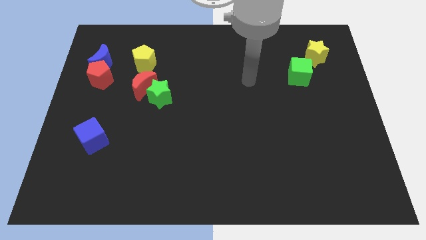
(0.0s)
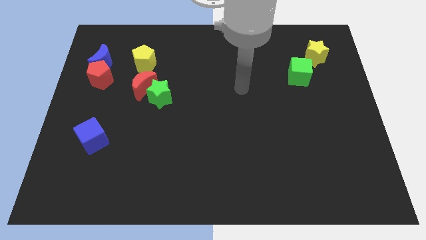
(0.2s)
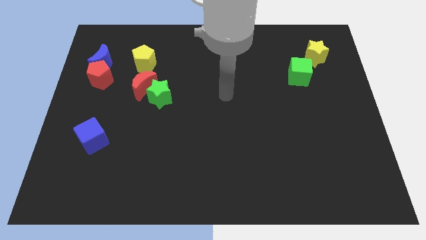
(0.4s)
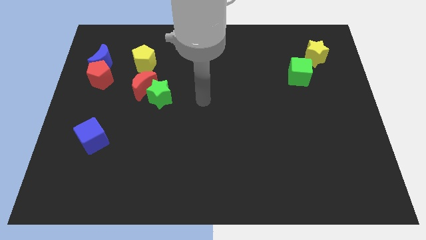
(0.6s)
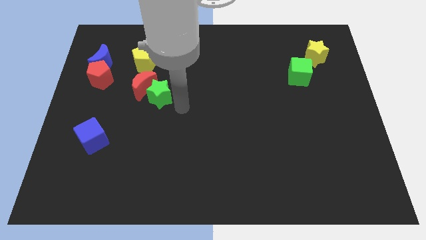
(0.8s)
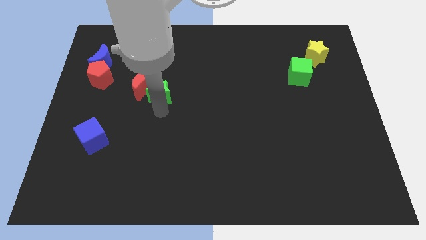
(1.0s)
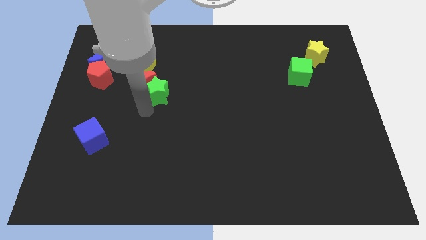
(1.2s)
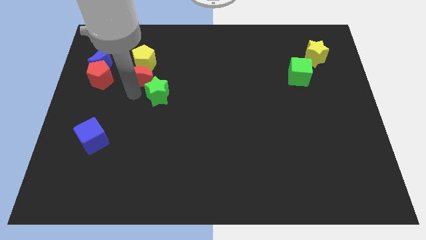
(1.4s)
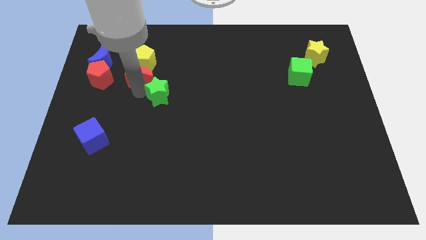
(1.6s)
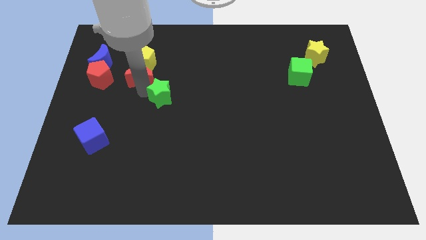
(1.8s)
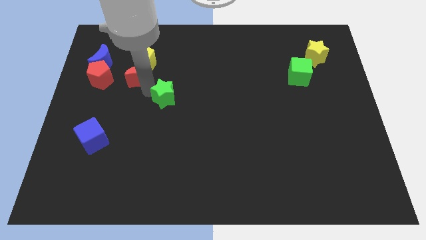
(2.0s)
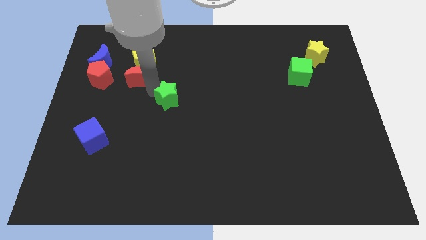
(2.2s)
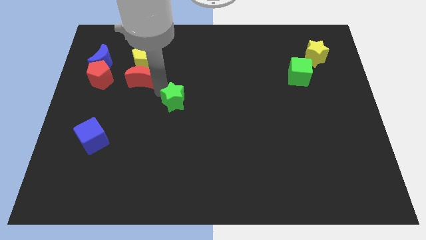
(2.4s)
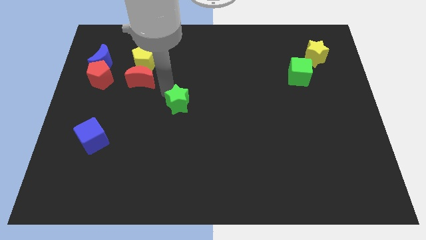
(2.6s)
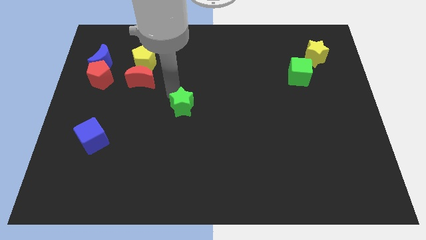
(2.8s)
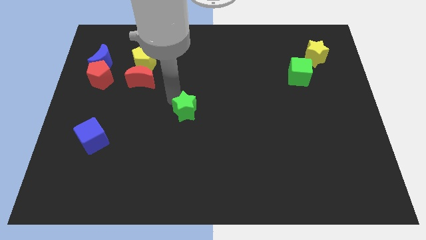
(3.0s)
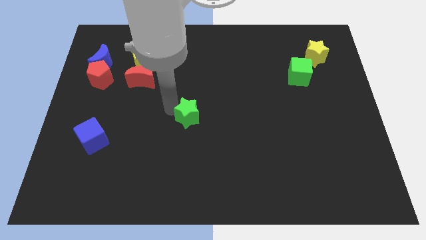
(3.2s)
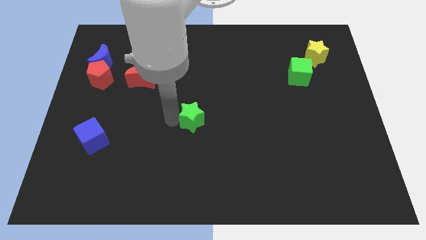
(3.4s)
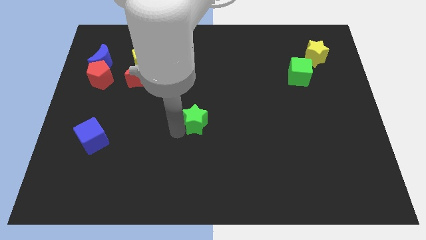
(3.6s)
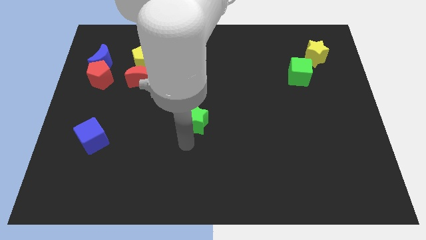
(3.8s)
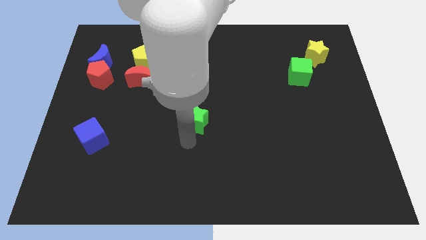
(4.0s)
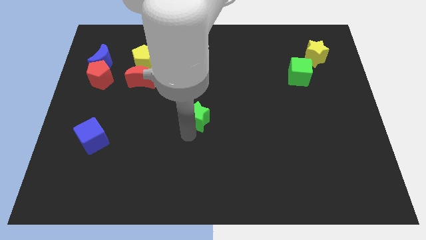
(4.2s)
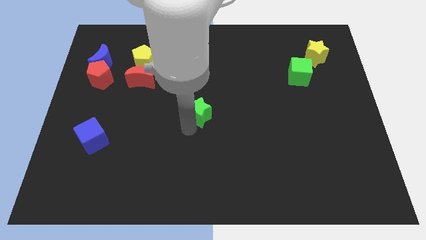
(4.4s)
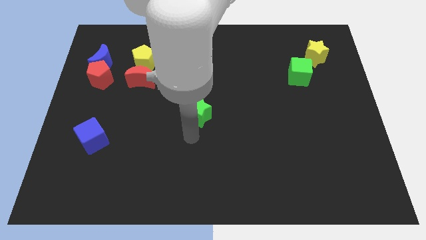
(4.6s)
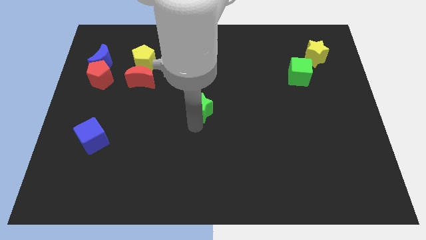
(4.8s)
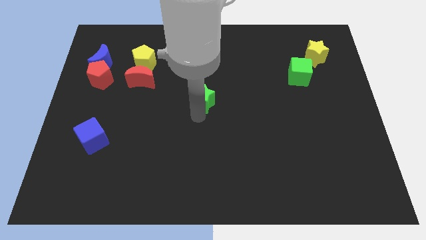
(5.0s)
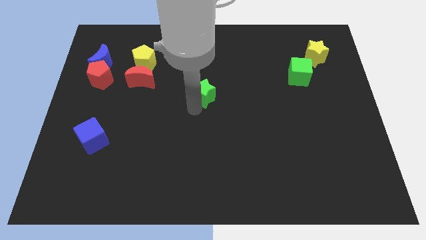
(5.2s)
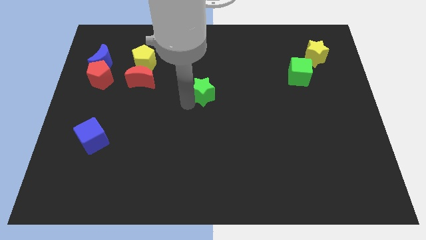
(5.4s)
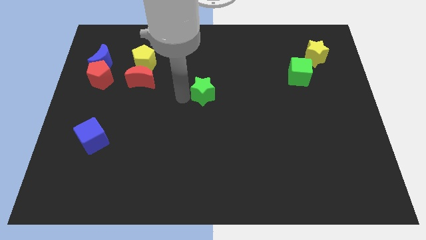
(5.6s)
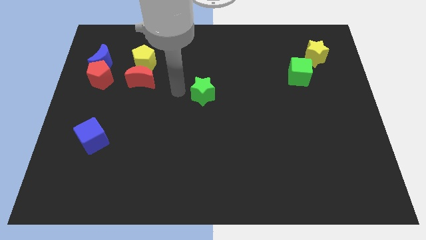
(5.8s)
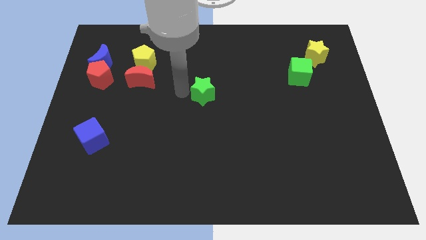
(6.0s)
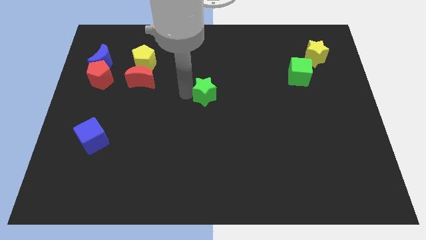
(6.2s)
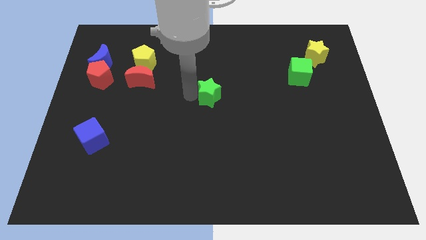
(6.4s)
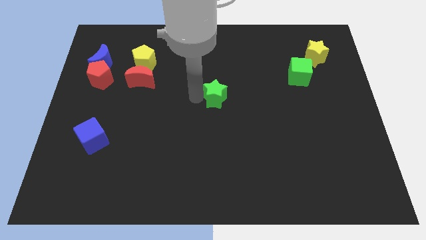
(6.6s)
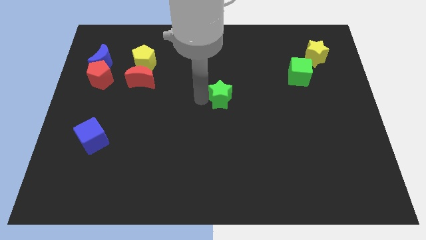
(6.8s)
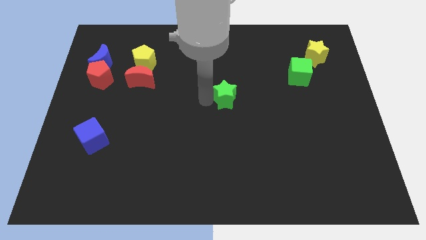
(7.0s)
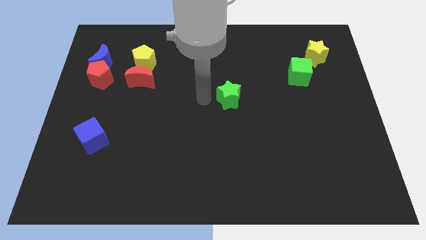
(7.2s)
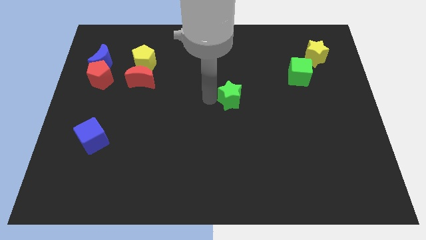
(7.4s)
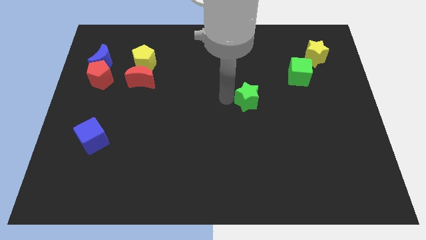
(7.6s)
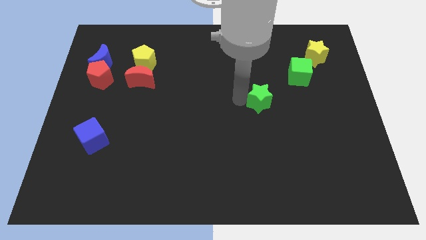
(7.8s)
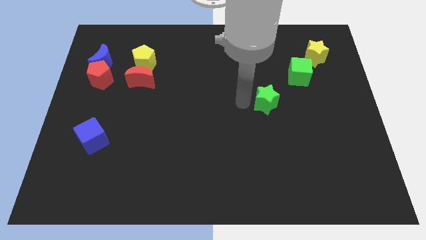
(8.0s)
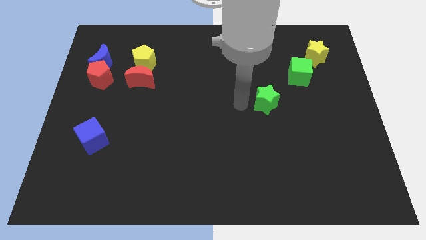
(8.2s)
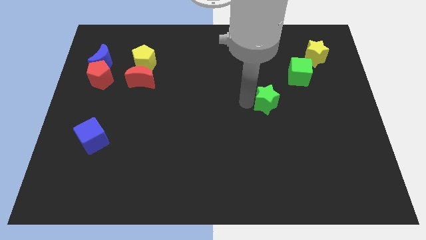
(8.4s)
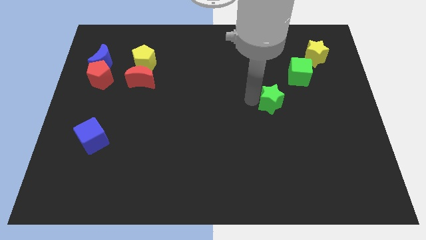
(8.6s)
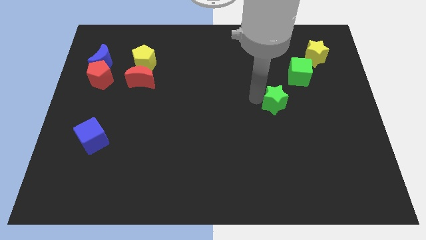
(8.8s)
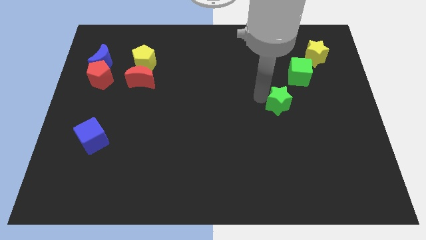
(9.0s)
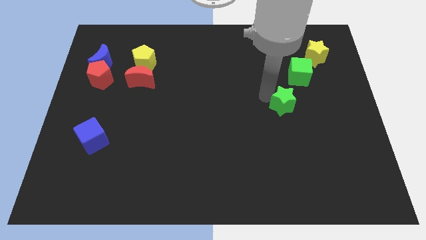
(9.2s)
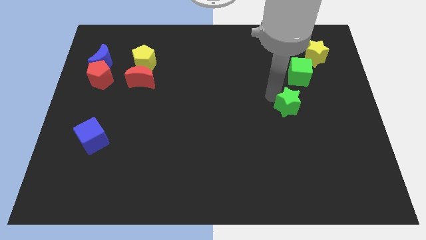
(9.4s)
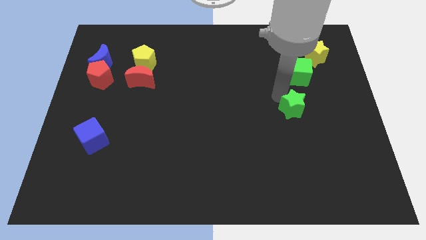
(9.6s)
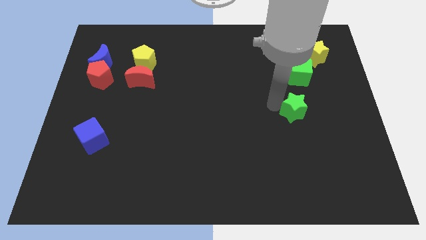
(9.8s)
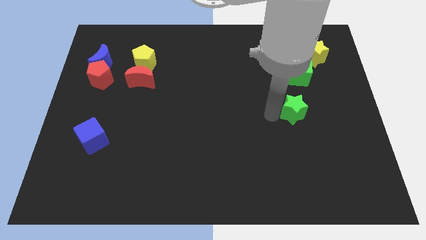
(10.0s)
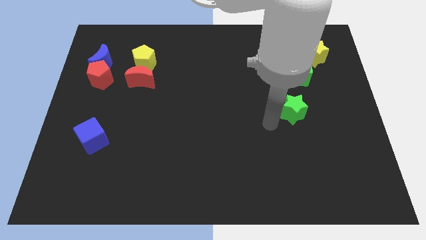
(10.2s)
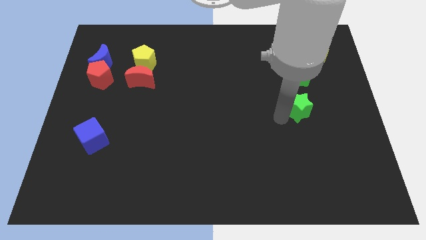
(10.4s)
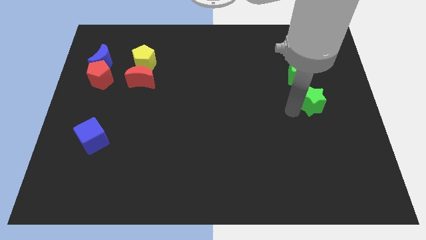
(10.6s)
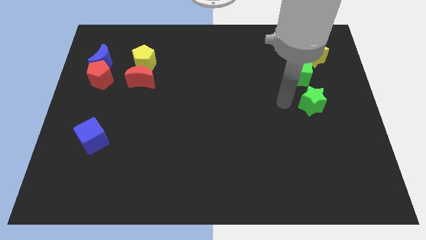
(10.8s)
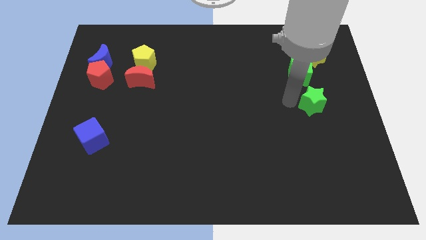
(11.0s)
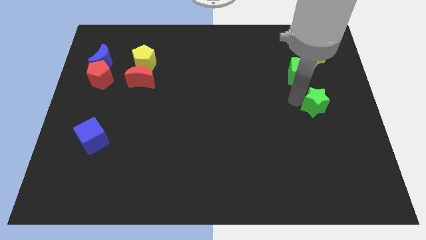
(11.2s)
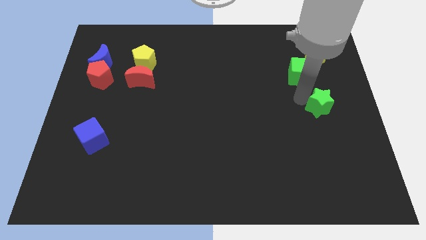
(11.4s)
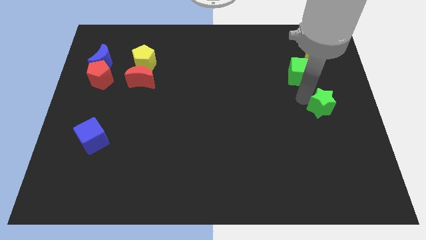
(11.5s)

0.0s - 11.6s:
move the green star to the center right
